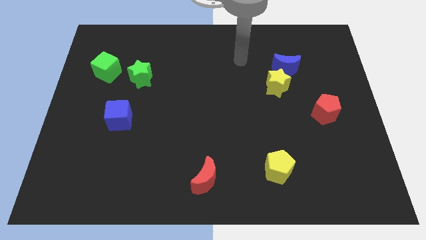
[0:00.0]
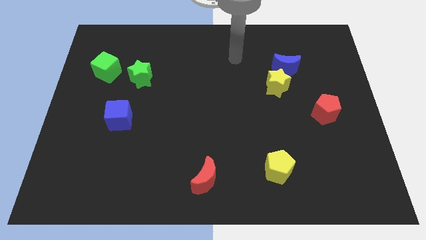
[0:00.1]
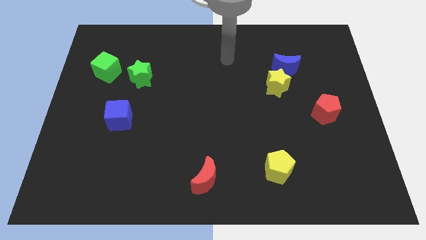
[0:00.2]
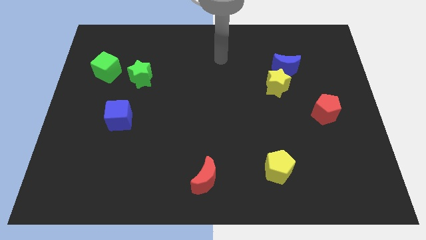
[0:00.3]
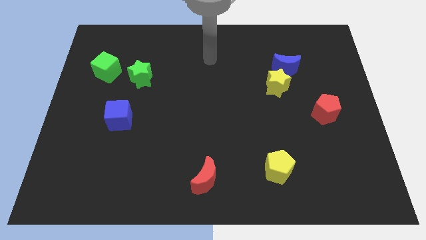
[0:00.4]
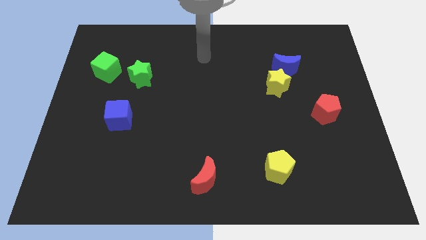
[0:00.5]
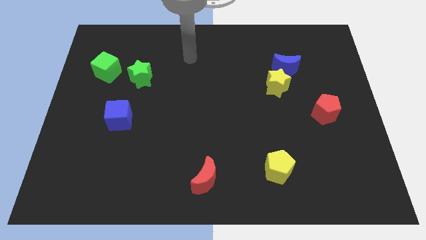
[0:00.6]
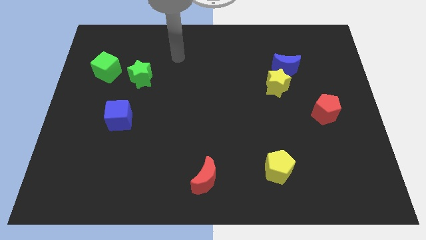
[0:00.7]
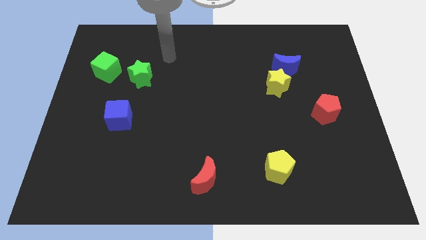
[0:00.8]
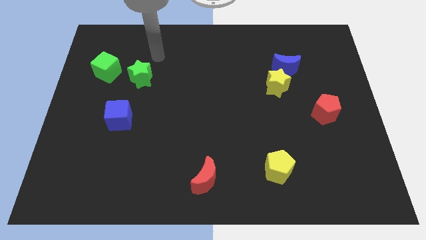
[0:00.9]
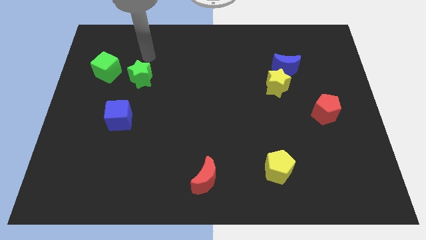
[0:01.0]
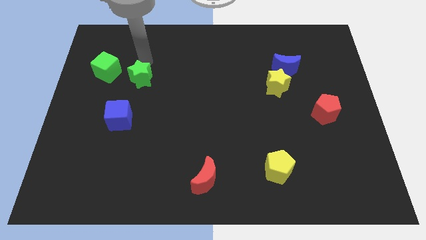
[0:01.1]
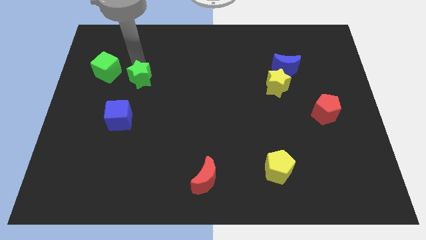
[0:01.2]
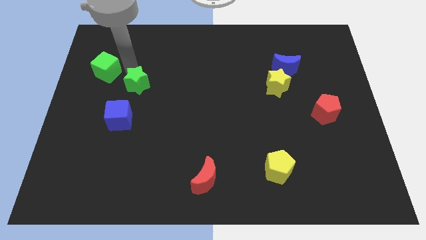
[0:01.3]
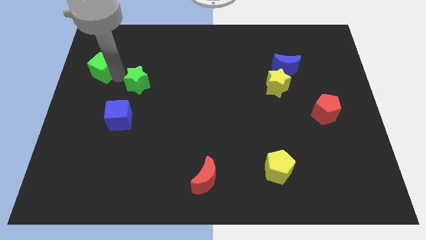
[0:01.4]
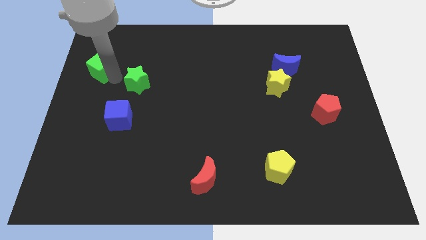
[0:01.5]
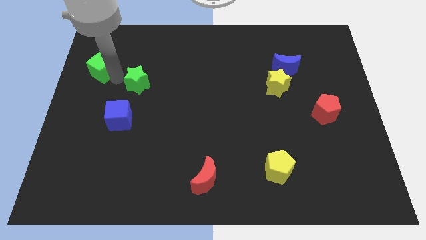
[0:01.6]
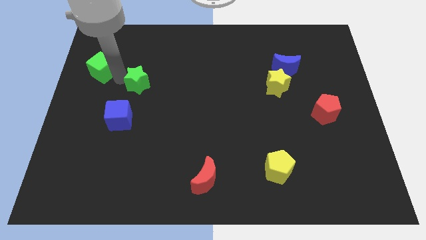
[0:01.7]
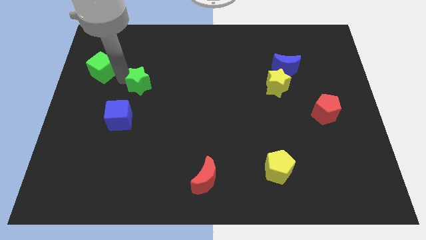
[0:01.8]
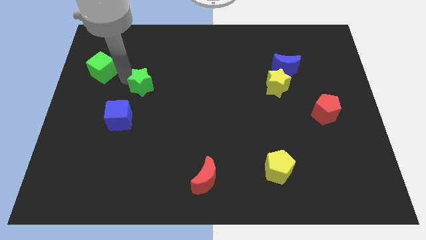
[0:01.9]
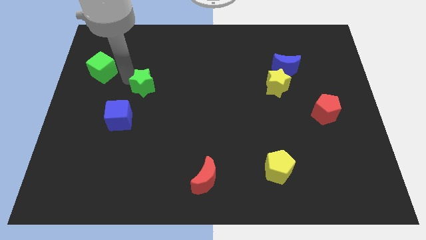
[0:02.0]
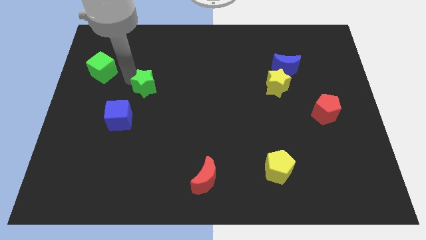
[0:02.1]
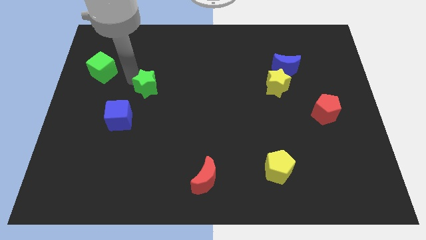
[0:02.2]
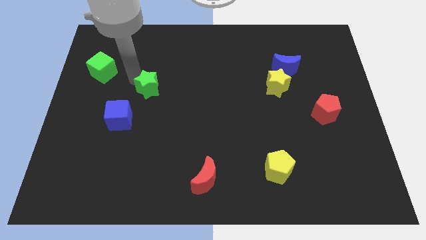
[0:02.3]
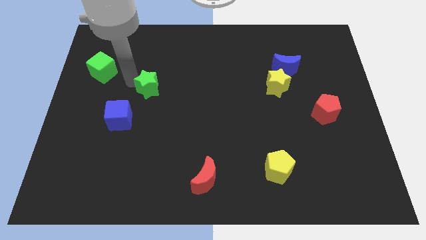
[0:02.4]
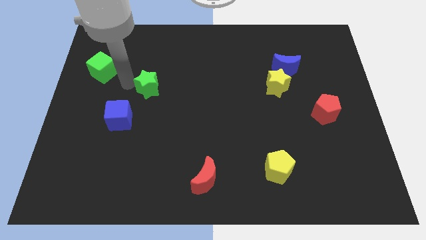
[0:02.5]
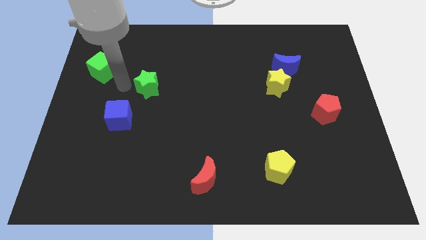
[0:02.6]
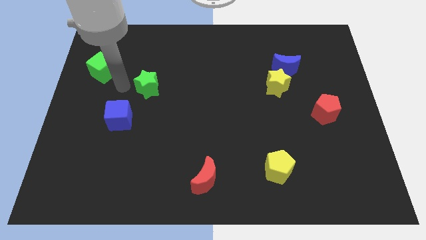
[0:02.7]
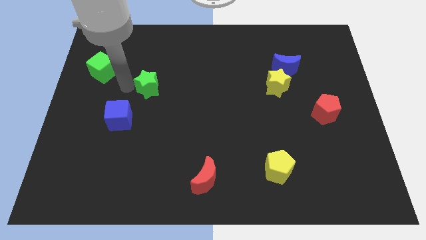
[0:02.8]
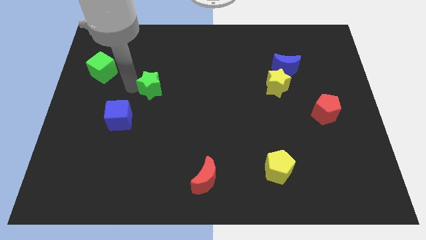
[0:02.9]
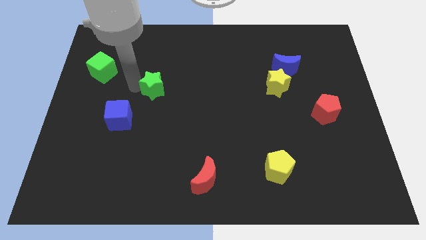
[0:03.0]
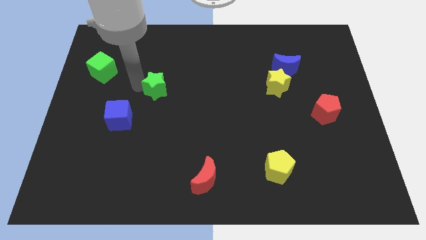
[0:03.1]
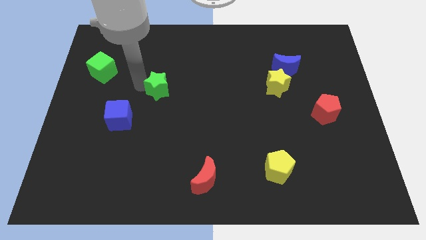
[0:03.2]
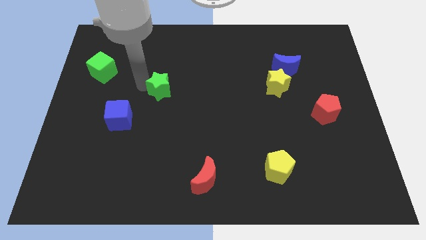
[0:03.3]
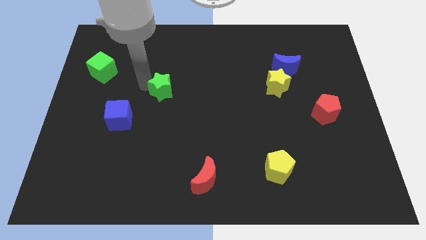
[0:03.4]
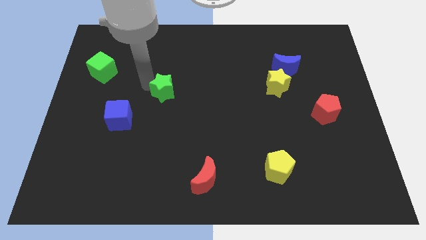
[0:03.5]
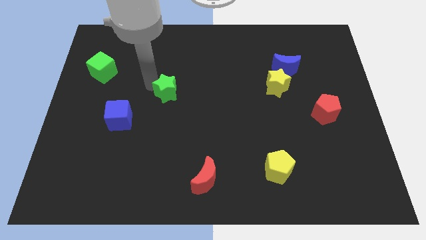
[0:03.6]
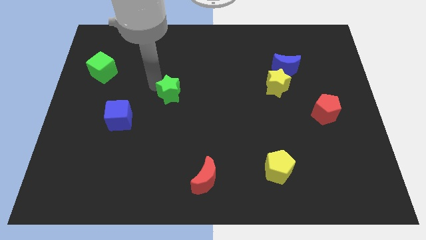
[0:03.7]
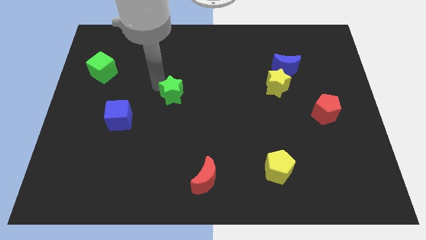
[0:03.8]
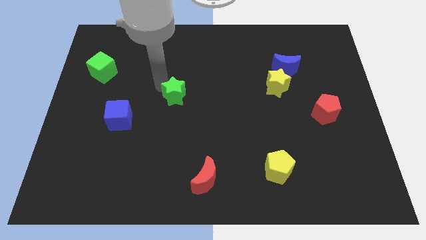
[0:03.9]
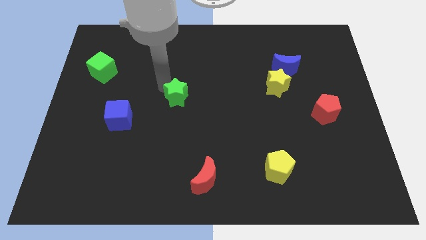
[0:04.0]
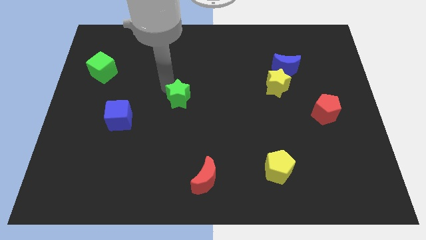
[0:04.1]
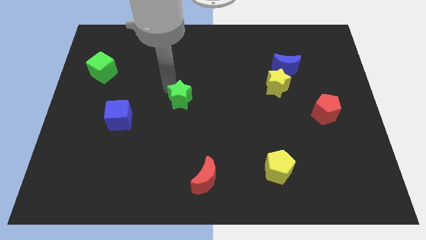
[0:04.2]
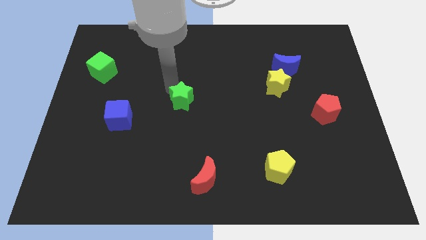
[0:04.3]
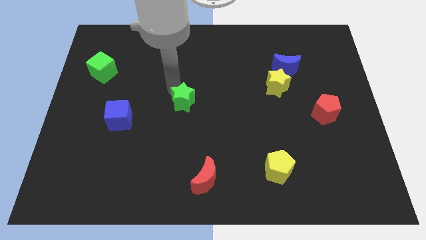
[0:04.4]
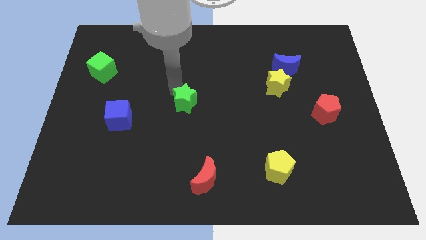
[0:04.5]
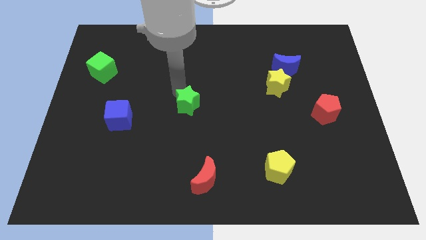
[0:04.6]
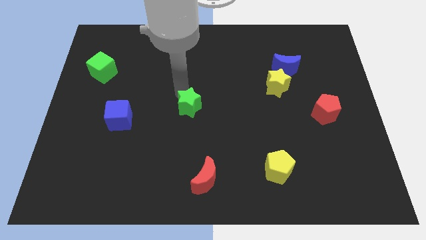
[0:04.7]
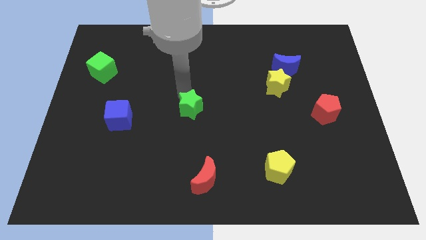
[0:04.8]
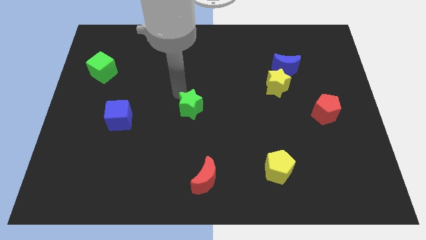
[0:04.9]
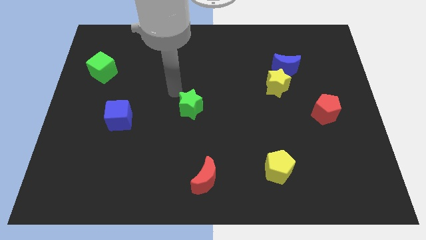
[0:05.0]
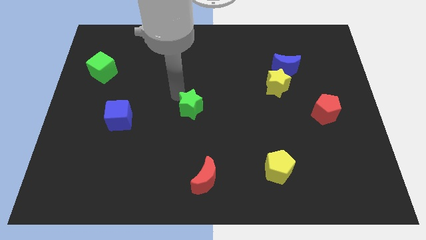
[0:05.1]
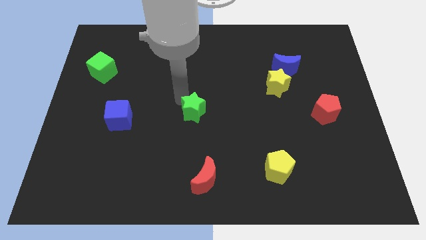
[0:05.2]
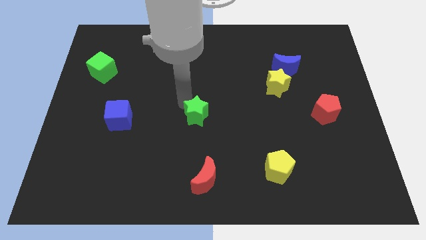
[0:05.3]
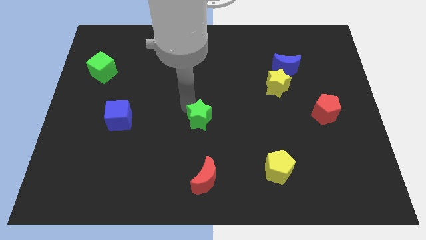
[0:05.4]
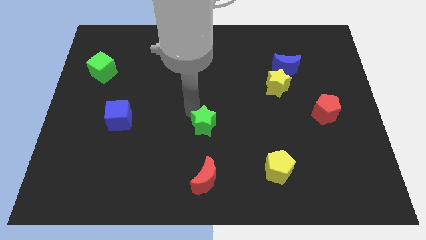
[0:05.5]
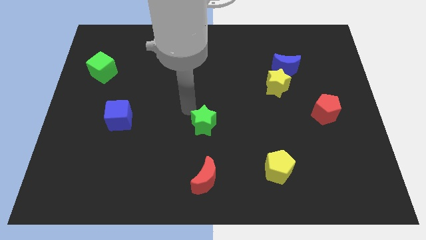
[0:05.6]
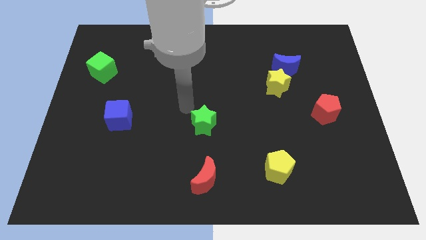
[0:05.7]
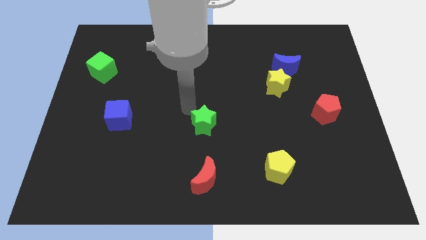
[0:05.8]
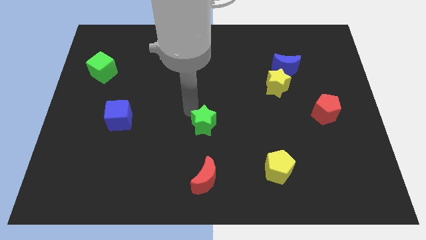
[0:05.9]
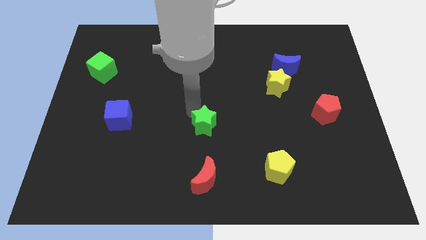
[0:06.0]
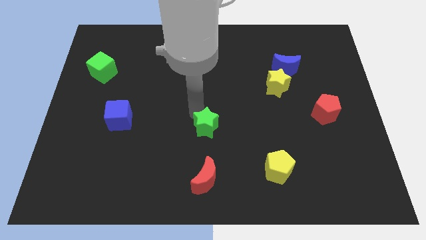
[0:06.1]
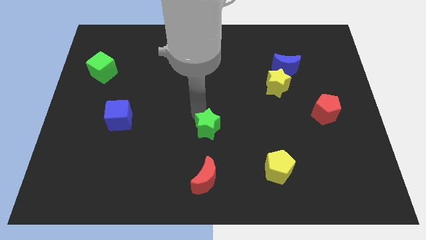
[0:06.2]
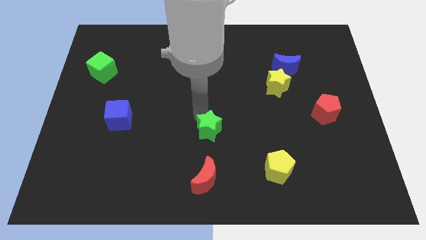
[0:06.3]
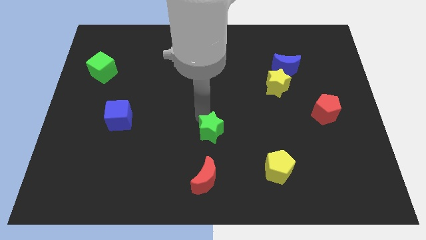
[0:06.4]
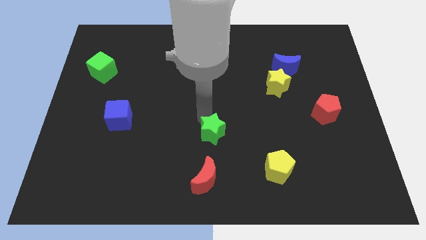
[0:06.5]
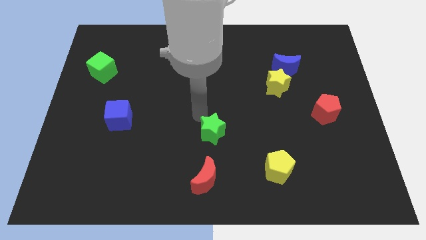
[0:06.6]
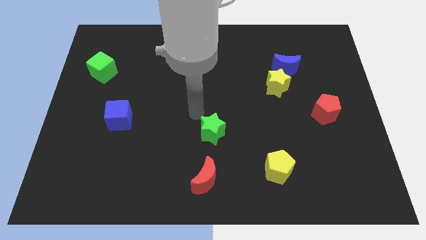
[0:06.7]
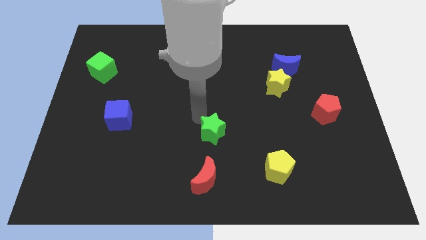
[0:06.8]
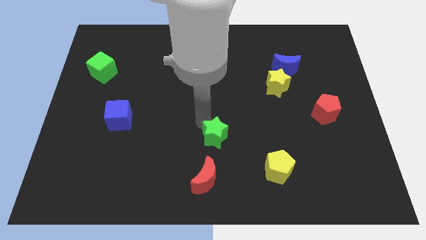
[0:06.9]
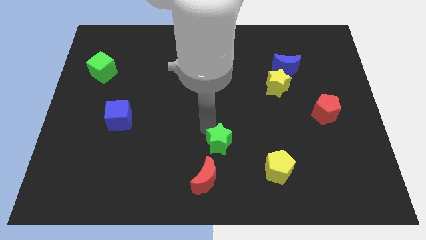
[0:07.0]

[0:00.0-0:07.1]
put the green star diagonally up and to the right of the red moon

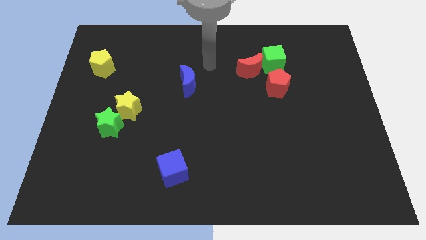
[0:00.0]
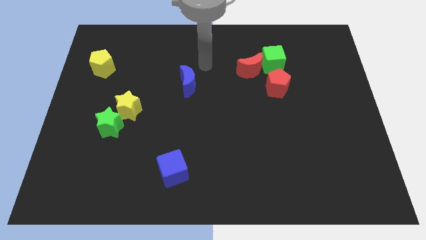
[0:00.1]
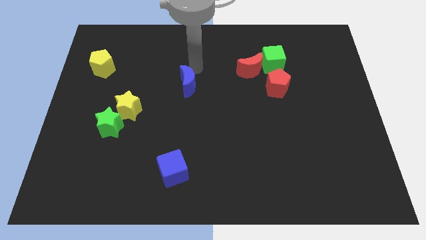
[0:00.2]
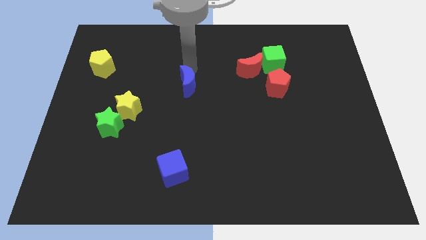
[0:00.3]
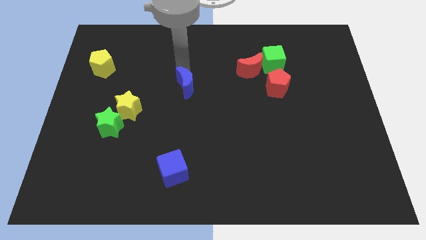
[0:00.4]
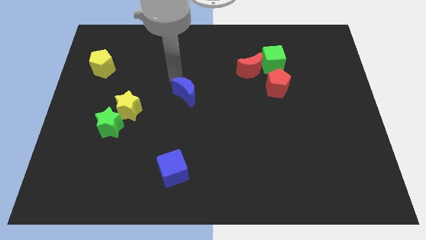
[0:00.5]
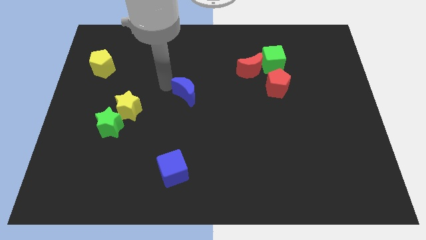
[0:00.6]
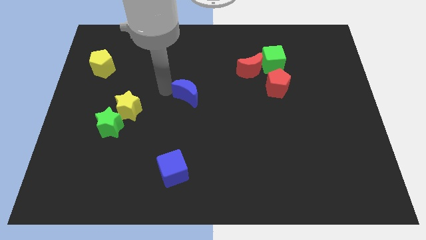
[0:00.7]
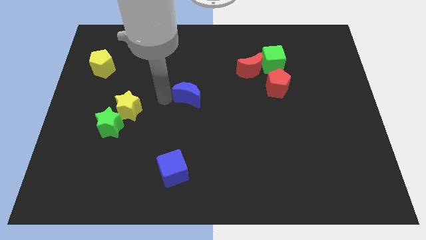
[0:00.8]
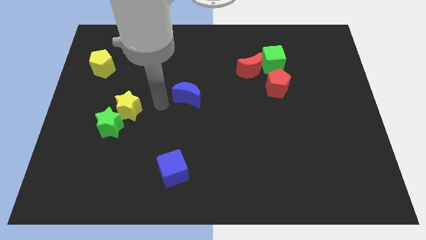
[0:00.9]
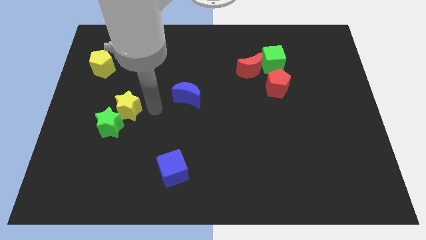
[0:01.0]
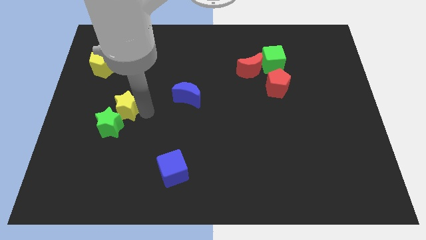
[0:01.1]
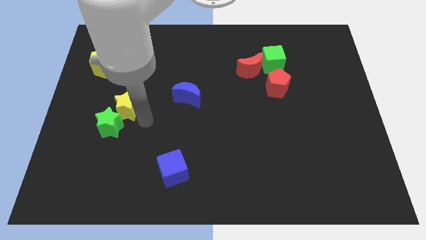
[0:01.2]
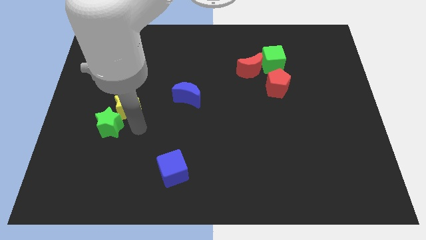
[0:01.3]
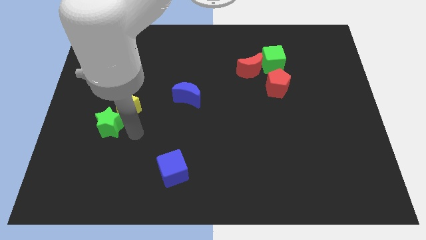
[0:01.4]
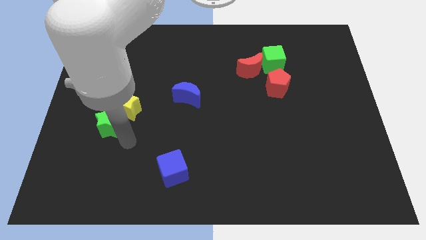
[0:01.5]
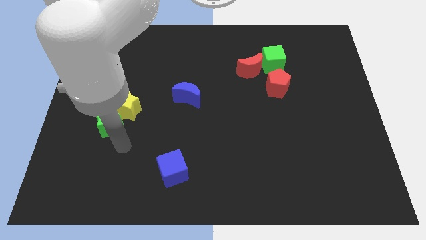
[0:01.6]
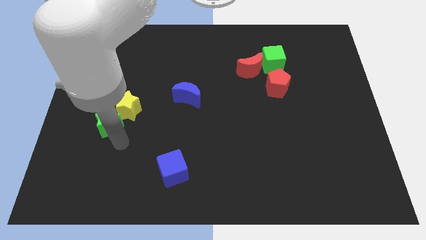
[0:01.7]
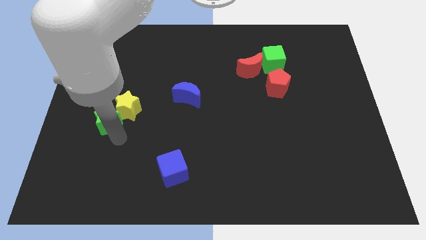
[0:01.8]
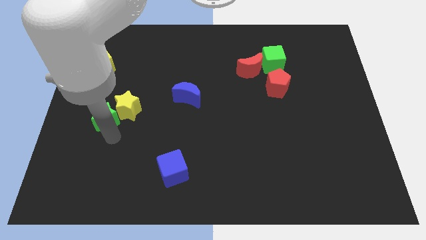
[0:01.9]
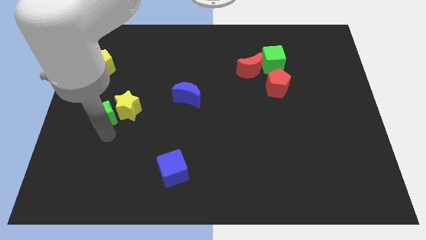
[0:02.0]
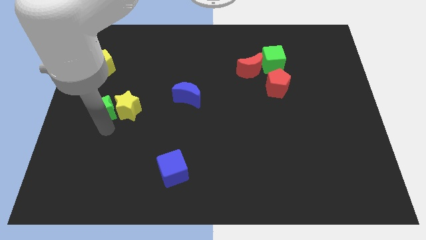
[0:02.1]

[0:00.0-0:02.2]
slide the green star to the top left side of the yellow star
